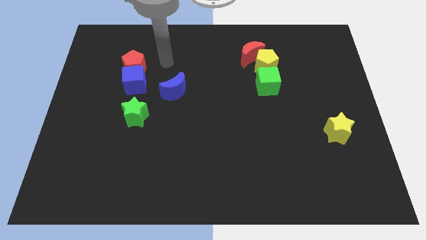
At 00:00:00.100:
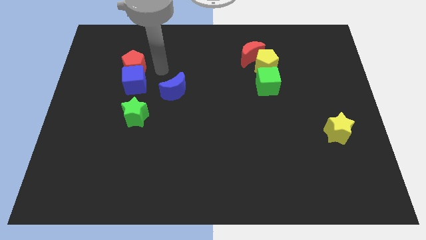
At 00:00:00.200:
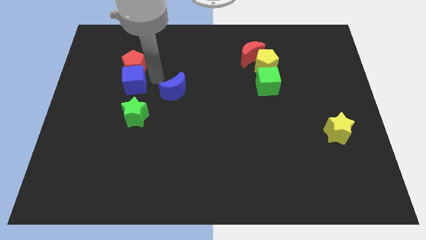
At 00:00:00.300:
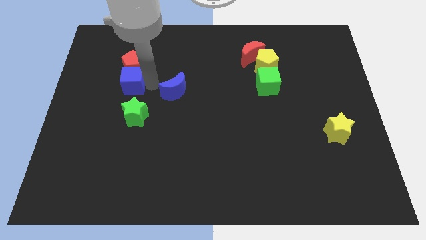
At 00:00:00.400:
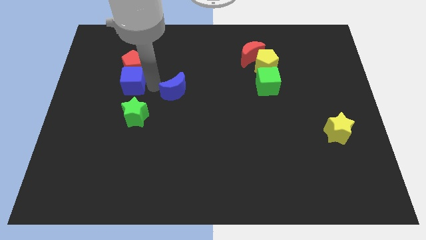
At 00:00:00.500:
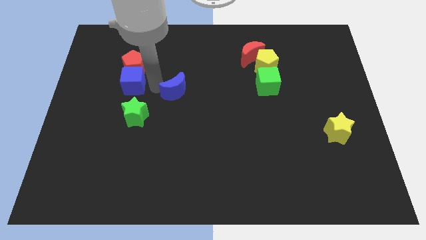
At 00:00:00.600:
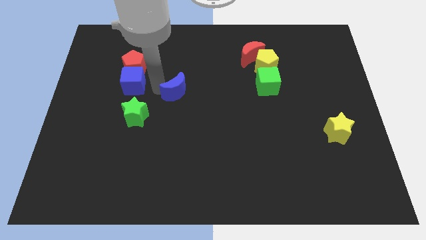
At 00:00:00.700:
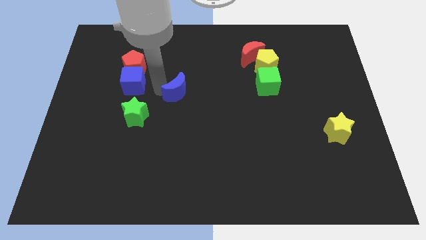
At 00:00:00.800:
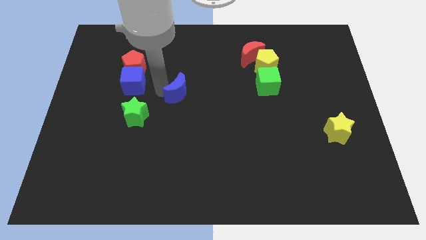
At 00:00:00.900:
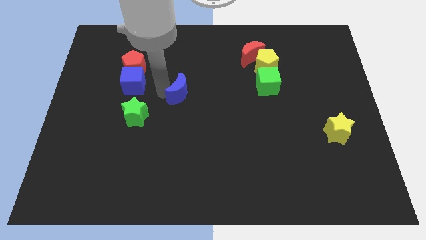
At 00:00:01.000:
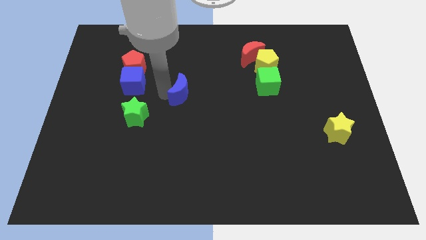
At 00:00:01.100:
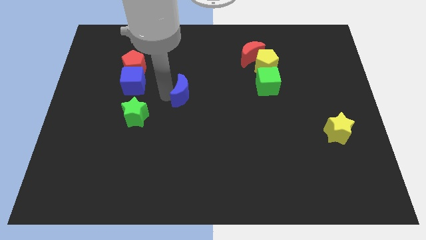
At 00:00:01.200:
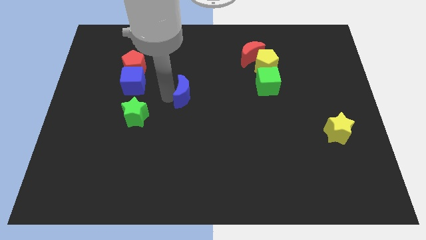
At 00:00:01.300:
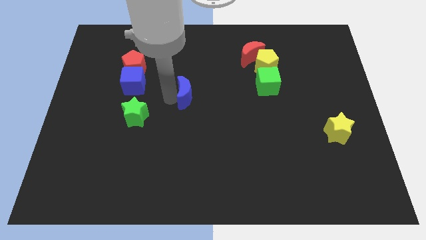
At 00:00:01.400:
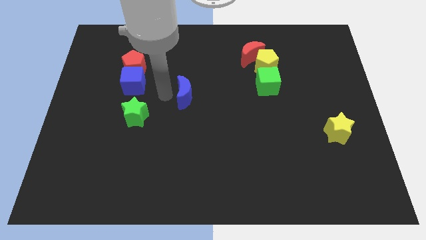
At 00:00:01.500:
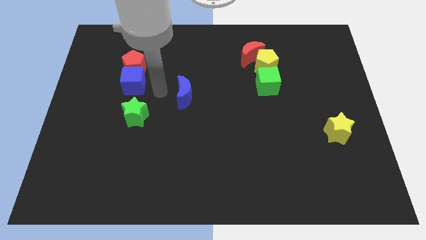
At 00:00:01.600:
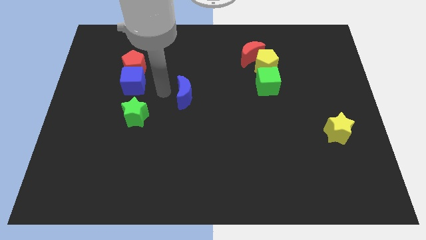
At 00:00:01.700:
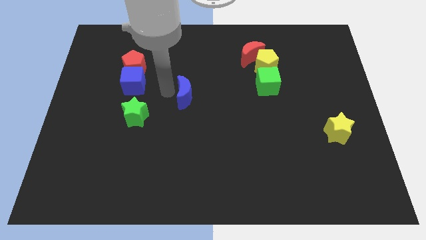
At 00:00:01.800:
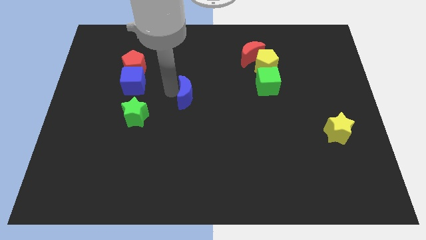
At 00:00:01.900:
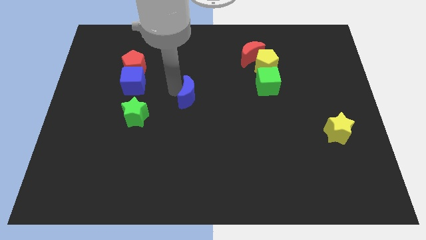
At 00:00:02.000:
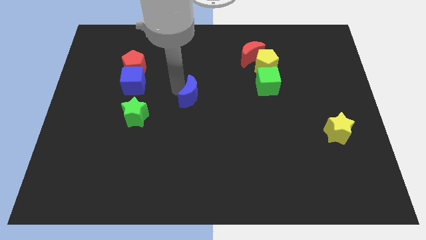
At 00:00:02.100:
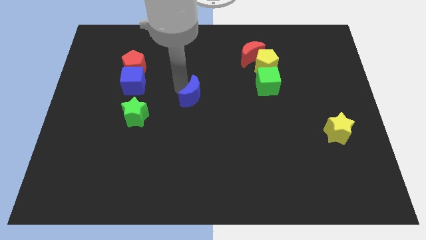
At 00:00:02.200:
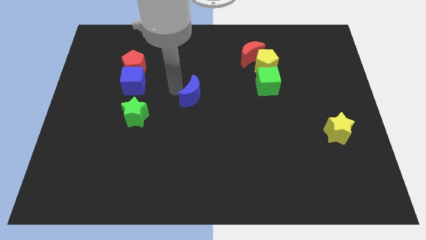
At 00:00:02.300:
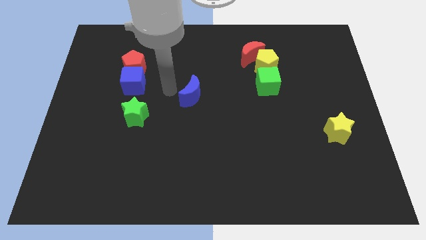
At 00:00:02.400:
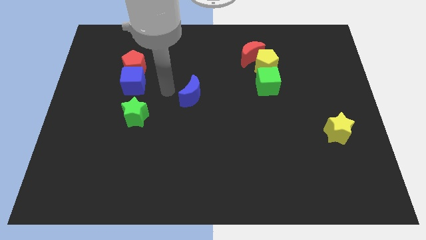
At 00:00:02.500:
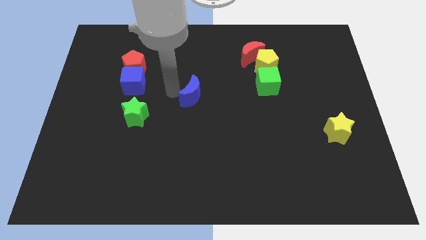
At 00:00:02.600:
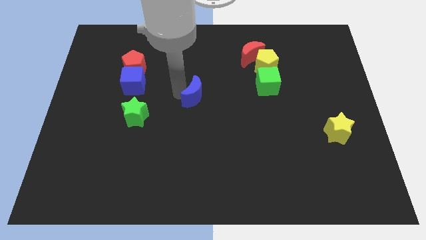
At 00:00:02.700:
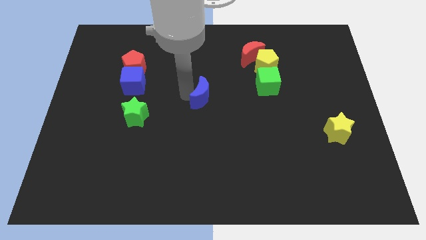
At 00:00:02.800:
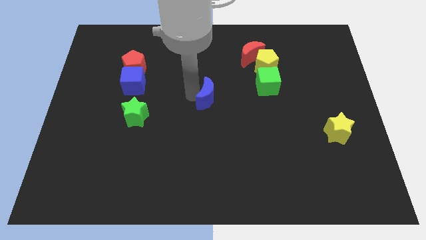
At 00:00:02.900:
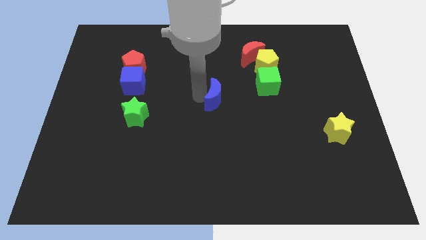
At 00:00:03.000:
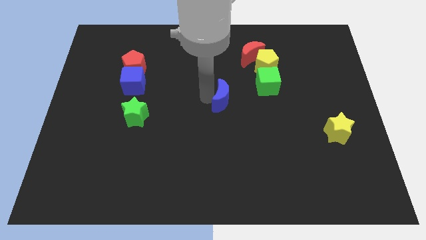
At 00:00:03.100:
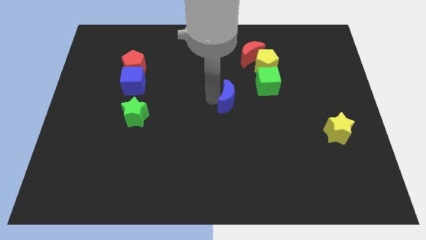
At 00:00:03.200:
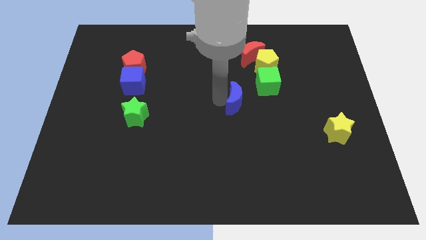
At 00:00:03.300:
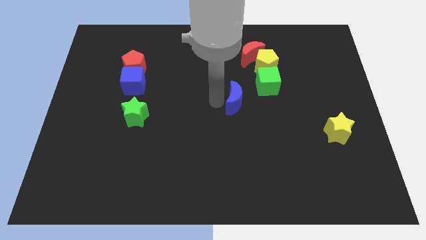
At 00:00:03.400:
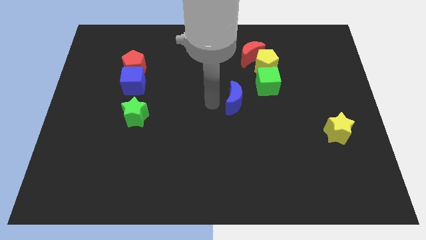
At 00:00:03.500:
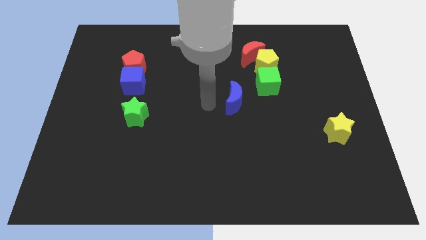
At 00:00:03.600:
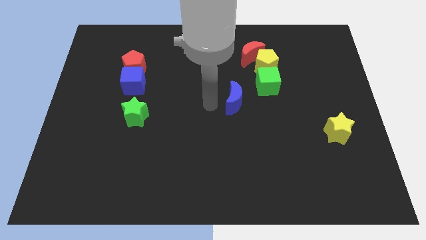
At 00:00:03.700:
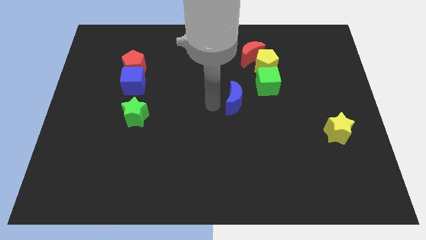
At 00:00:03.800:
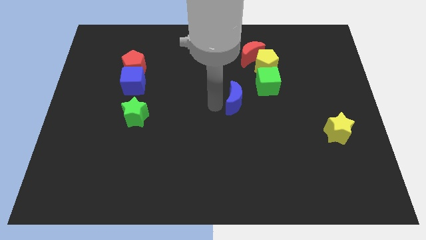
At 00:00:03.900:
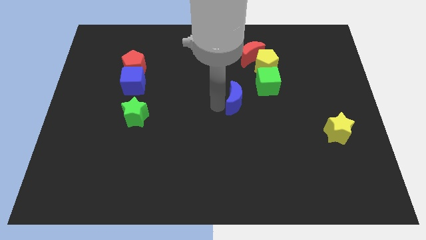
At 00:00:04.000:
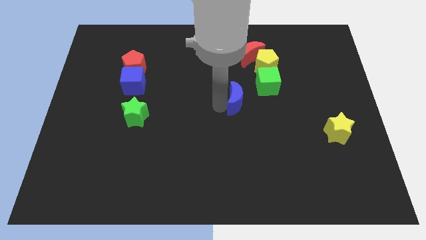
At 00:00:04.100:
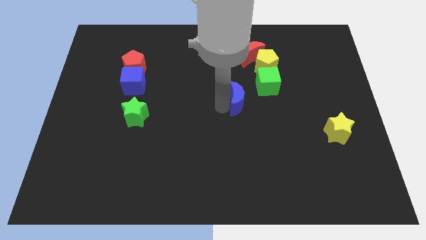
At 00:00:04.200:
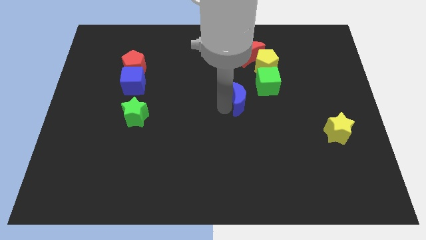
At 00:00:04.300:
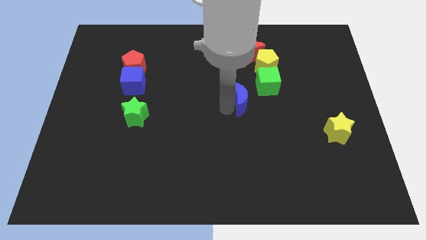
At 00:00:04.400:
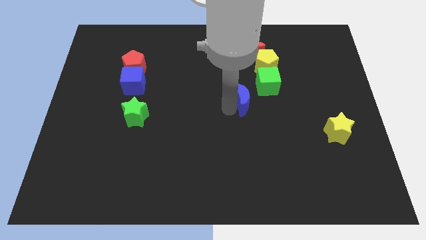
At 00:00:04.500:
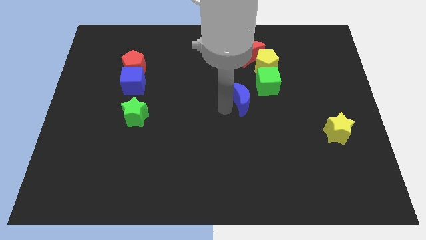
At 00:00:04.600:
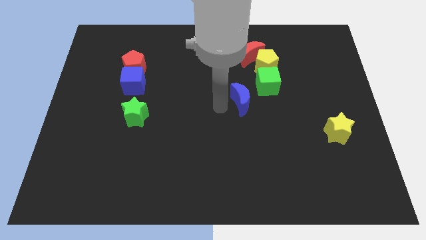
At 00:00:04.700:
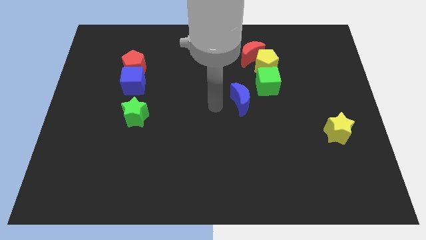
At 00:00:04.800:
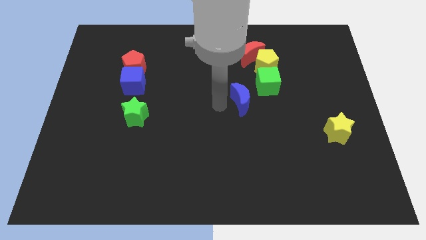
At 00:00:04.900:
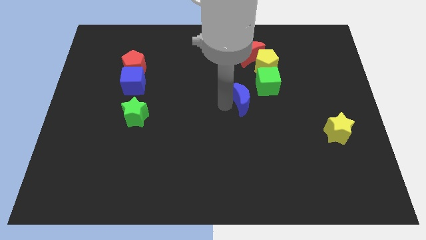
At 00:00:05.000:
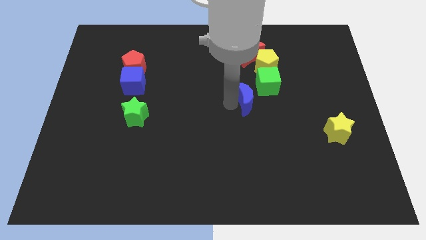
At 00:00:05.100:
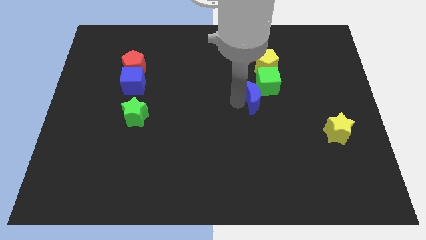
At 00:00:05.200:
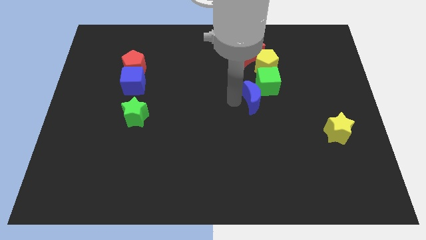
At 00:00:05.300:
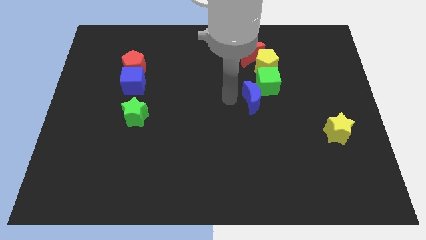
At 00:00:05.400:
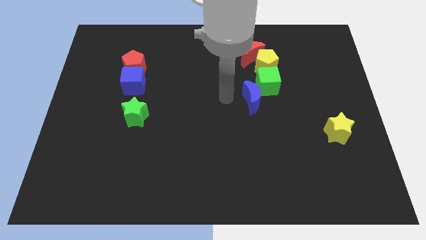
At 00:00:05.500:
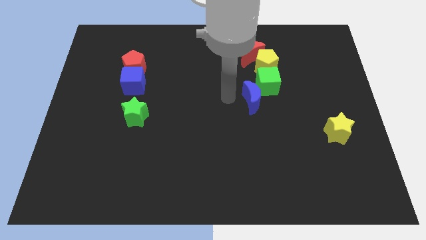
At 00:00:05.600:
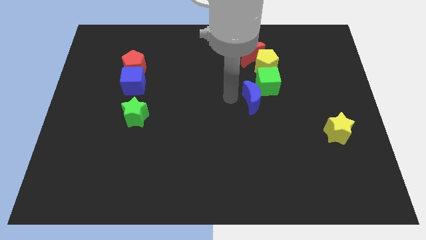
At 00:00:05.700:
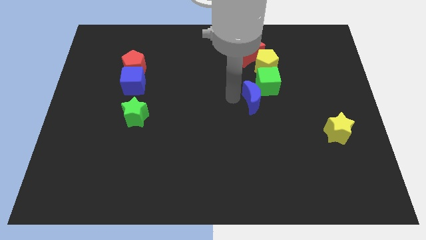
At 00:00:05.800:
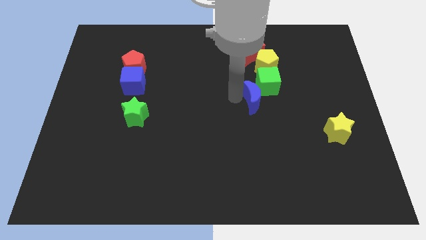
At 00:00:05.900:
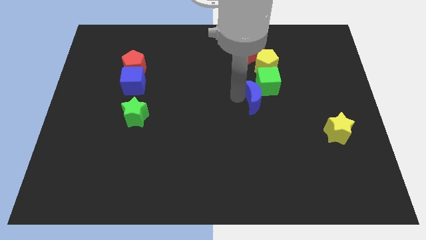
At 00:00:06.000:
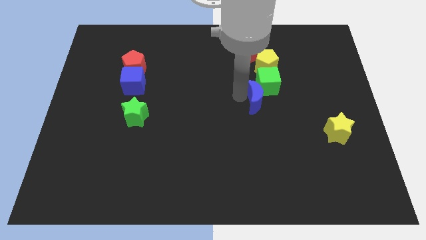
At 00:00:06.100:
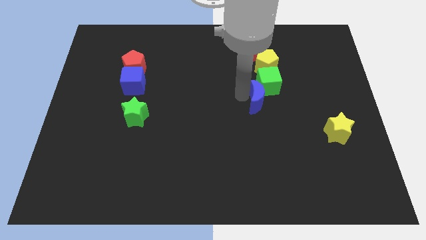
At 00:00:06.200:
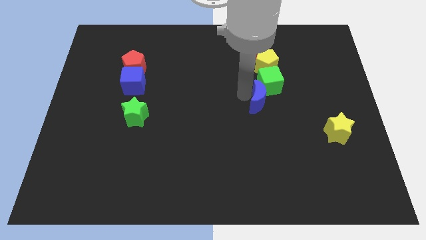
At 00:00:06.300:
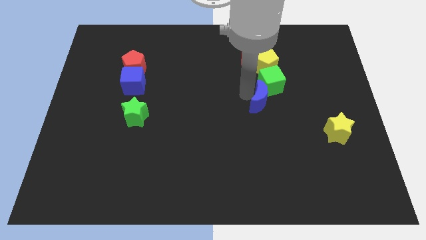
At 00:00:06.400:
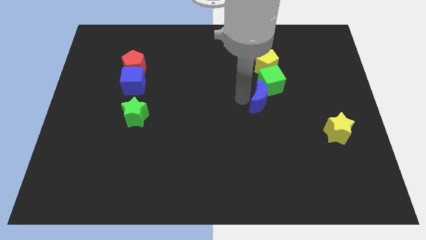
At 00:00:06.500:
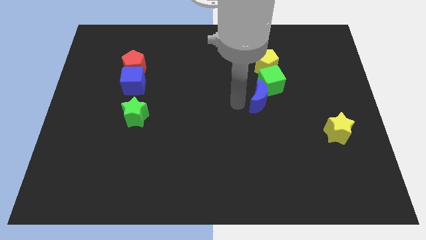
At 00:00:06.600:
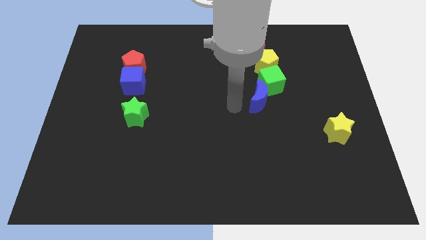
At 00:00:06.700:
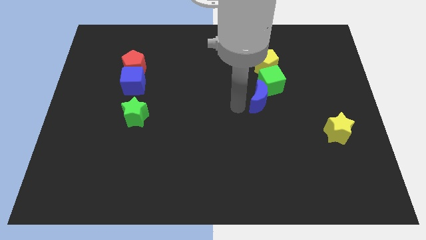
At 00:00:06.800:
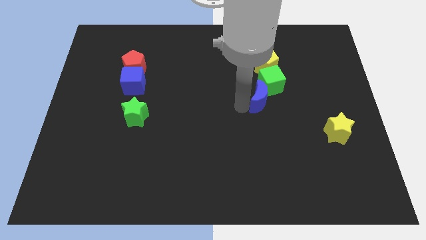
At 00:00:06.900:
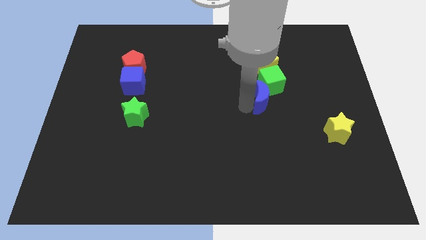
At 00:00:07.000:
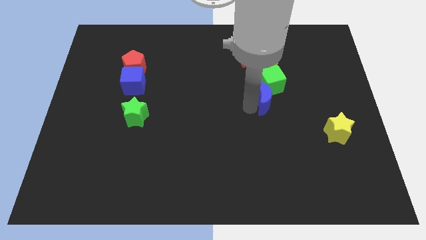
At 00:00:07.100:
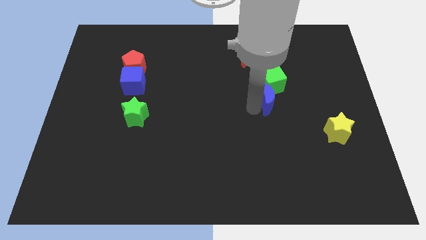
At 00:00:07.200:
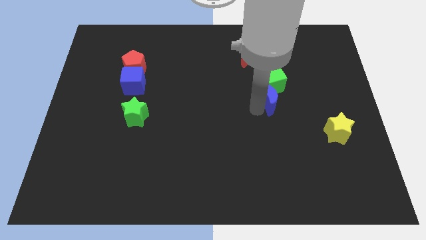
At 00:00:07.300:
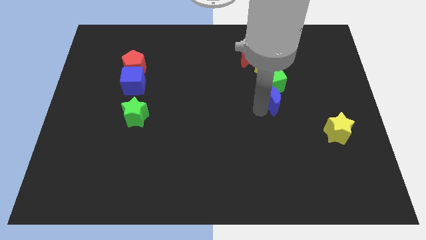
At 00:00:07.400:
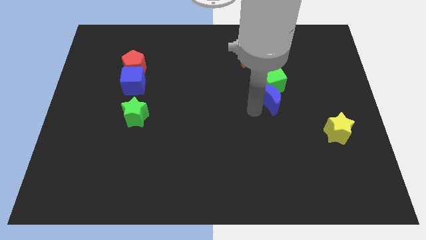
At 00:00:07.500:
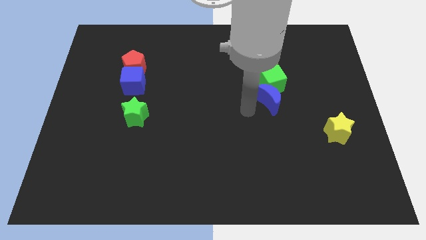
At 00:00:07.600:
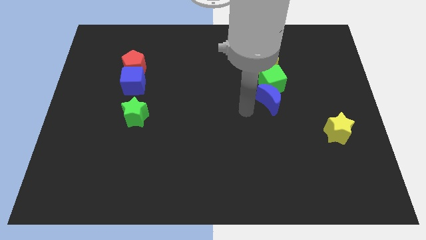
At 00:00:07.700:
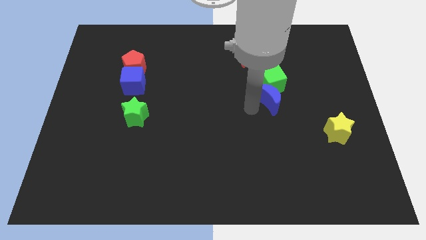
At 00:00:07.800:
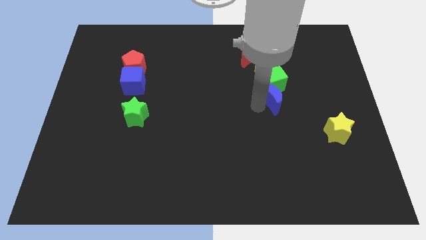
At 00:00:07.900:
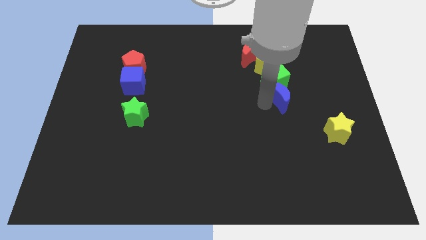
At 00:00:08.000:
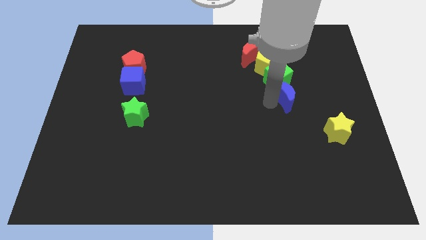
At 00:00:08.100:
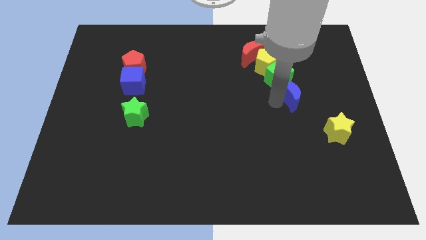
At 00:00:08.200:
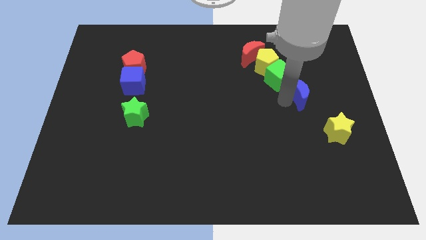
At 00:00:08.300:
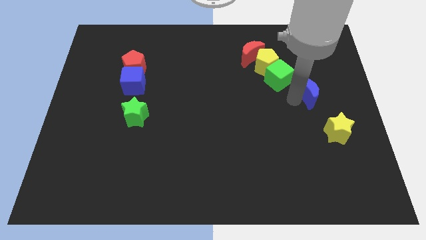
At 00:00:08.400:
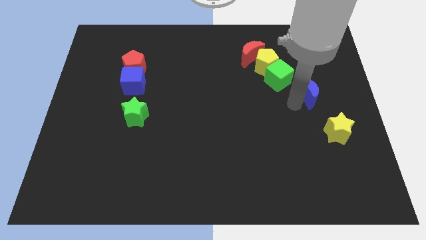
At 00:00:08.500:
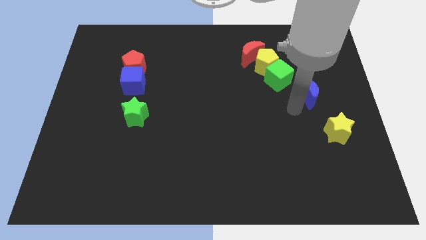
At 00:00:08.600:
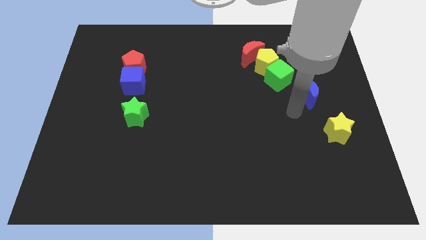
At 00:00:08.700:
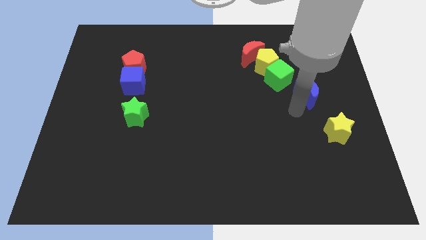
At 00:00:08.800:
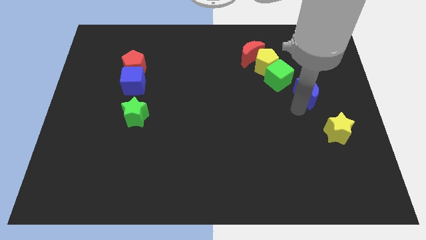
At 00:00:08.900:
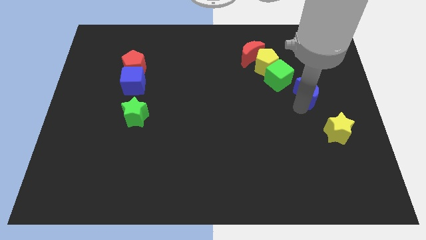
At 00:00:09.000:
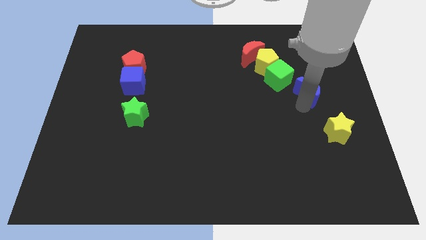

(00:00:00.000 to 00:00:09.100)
put the blue moon right of the green cube
